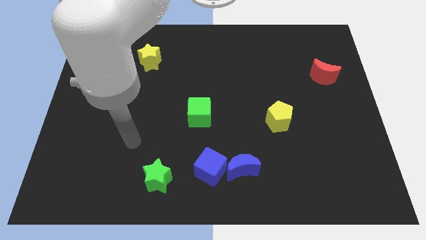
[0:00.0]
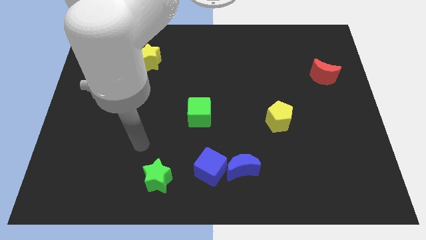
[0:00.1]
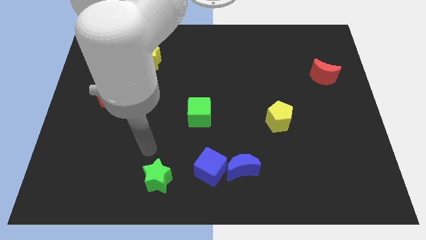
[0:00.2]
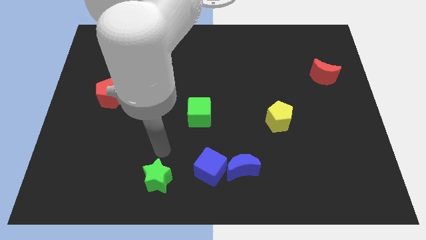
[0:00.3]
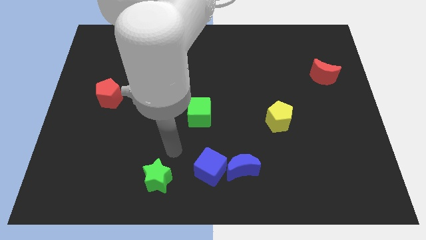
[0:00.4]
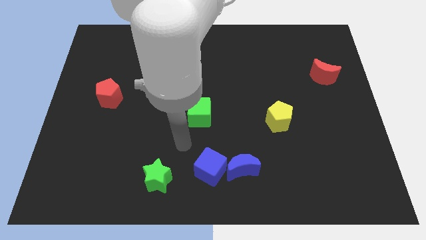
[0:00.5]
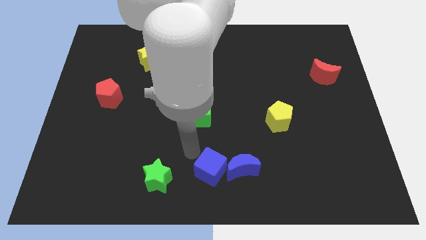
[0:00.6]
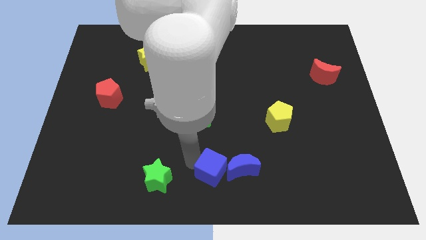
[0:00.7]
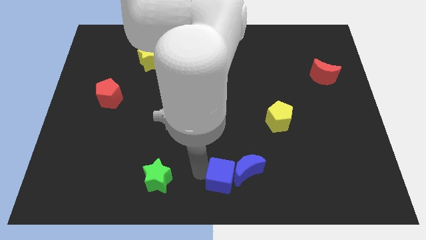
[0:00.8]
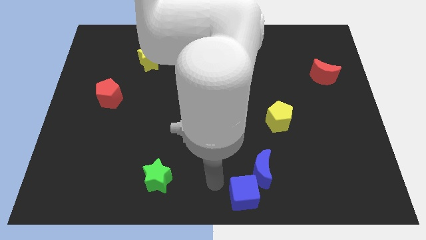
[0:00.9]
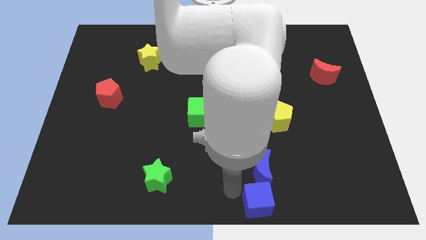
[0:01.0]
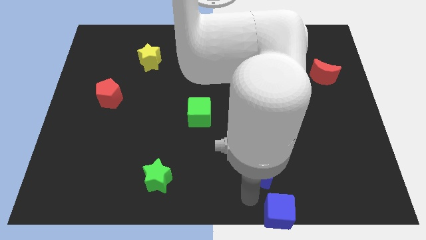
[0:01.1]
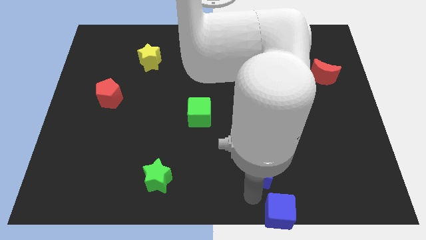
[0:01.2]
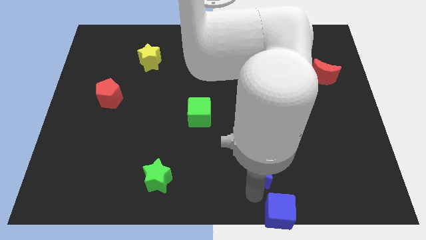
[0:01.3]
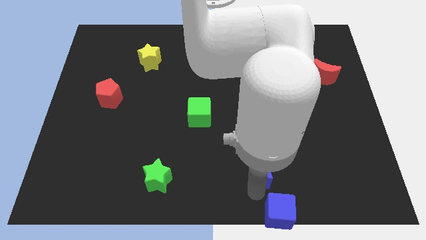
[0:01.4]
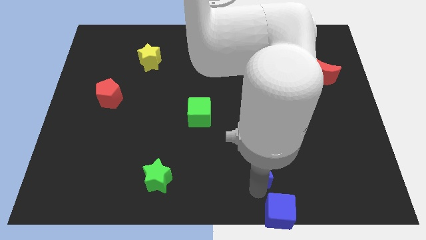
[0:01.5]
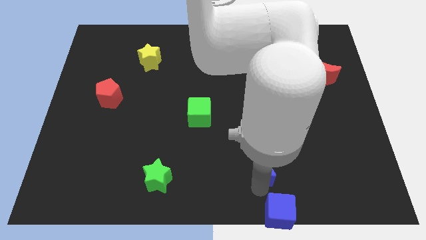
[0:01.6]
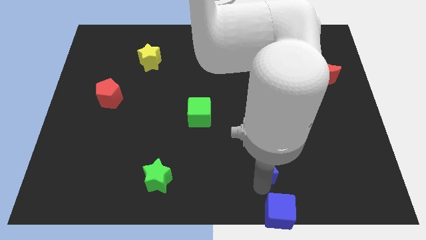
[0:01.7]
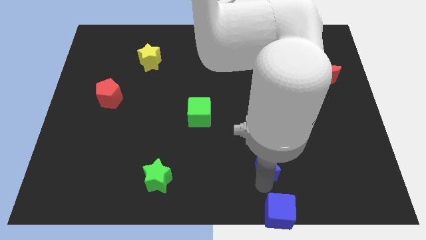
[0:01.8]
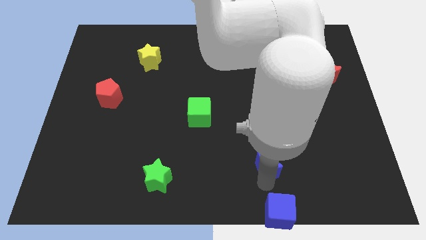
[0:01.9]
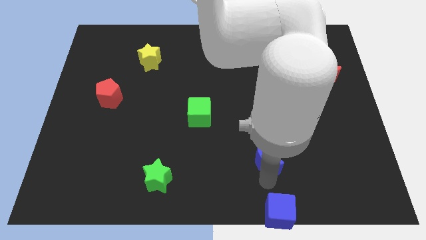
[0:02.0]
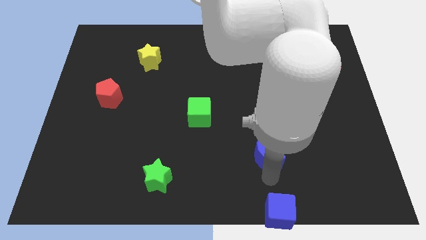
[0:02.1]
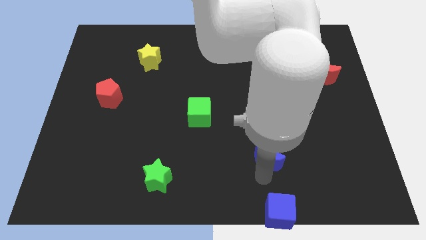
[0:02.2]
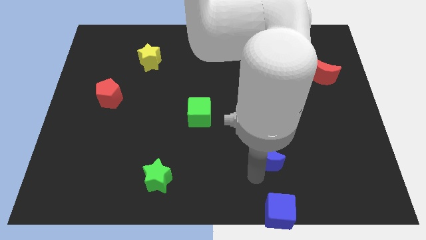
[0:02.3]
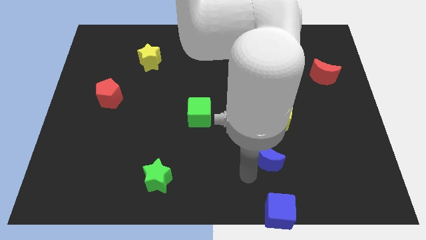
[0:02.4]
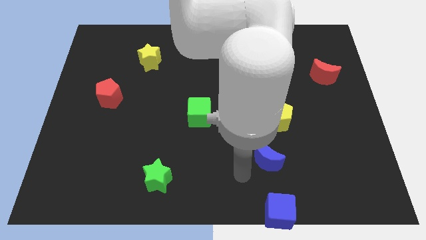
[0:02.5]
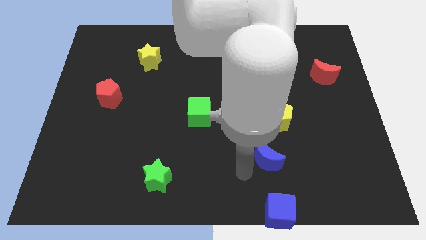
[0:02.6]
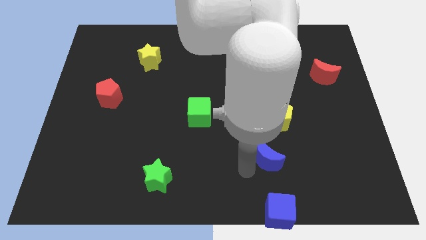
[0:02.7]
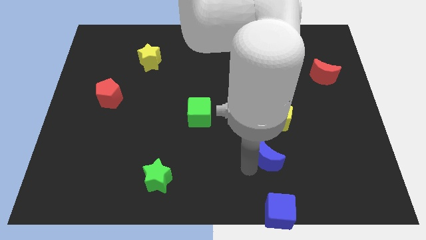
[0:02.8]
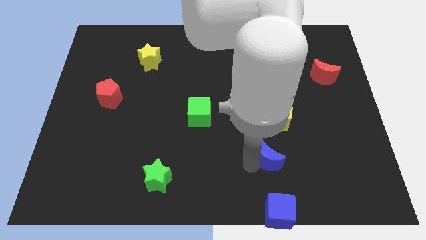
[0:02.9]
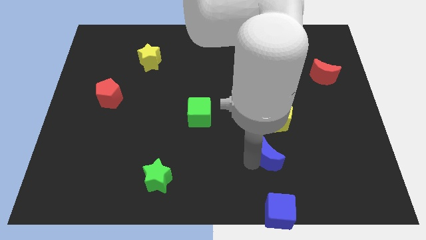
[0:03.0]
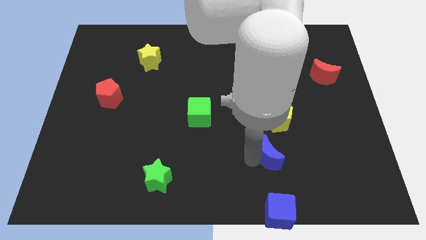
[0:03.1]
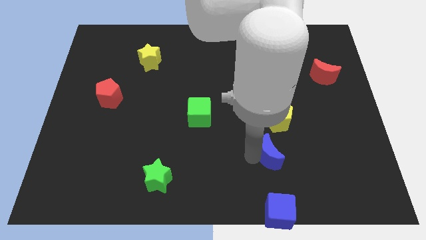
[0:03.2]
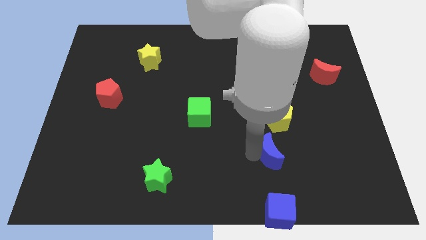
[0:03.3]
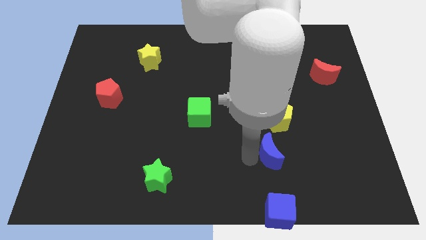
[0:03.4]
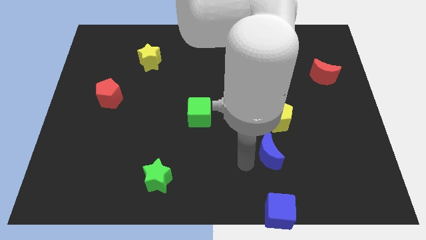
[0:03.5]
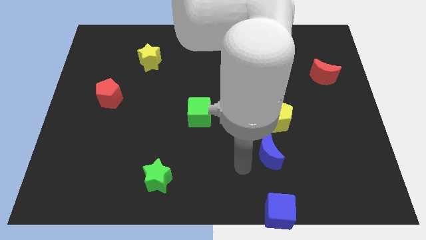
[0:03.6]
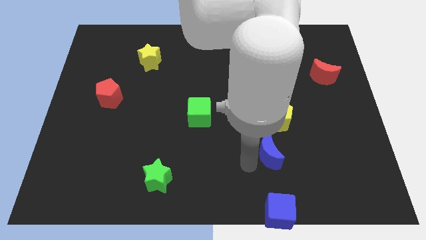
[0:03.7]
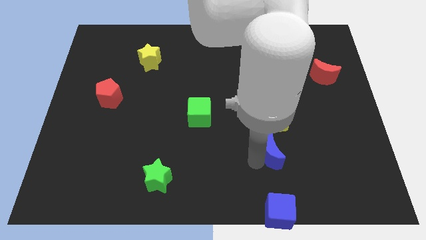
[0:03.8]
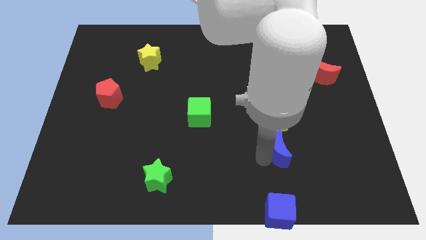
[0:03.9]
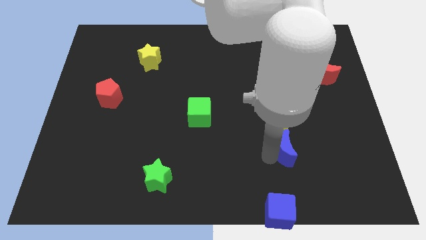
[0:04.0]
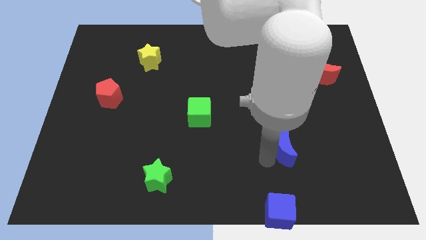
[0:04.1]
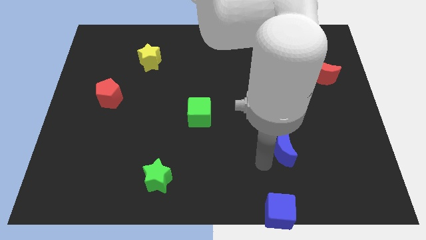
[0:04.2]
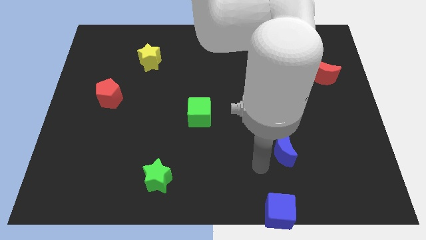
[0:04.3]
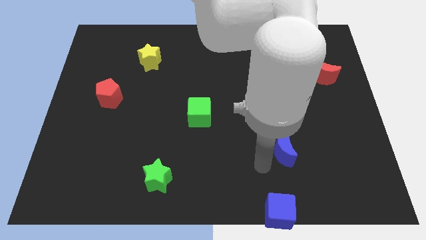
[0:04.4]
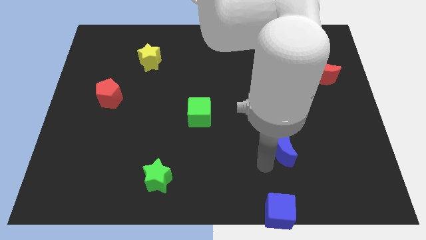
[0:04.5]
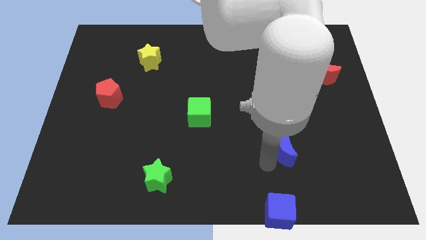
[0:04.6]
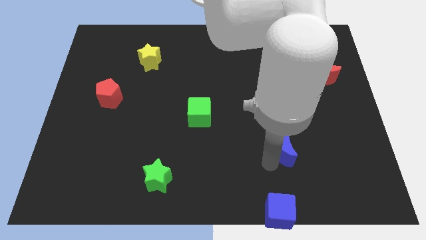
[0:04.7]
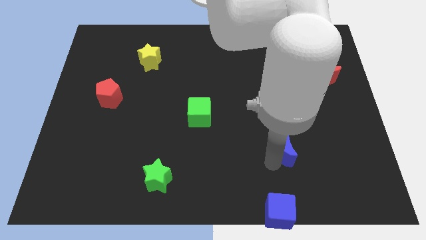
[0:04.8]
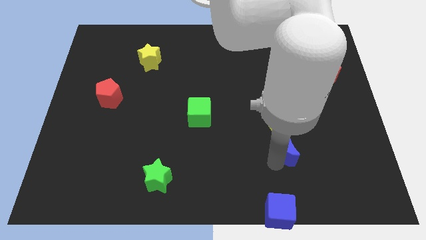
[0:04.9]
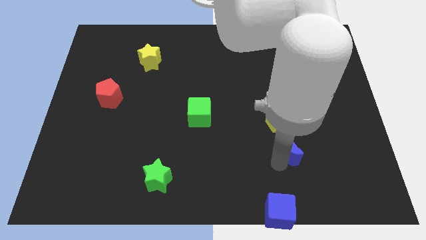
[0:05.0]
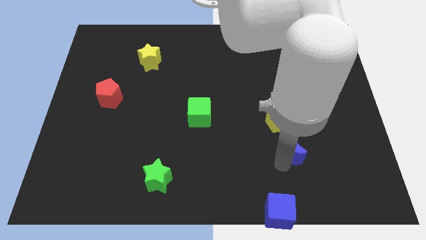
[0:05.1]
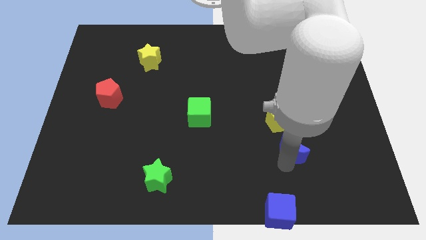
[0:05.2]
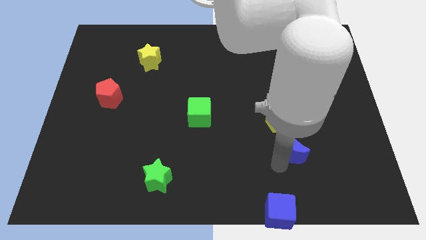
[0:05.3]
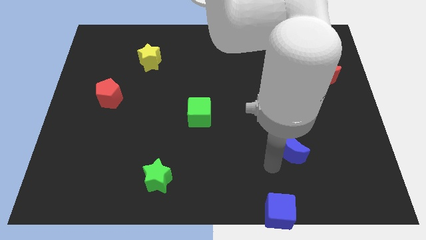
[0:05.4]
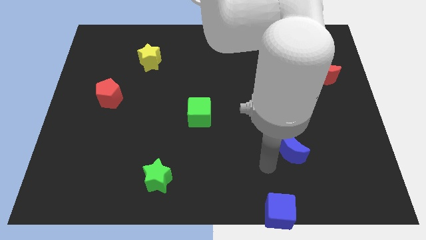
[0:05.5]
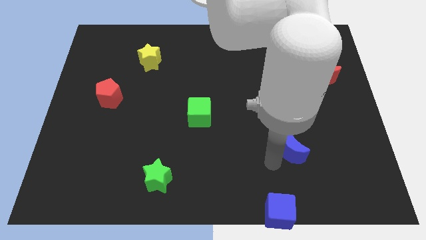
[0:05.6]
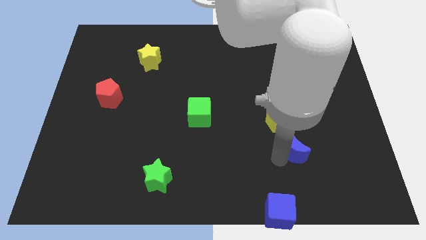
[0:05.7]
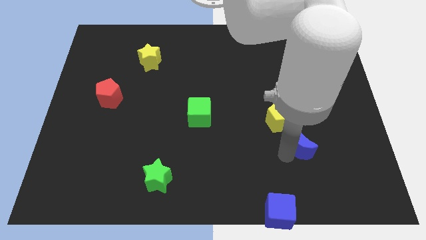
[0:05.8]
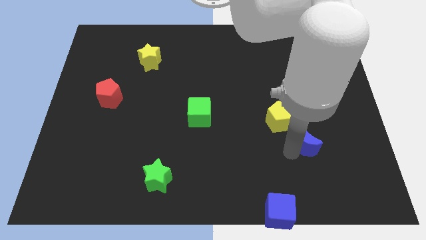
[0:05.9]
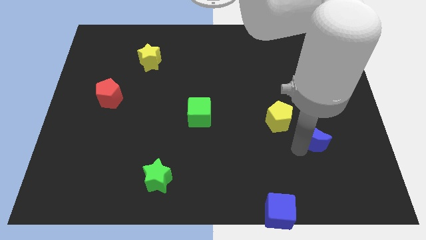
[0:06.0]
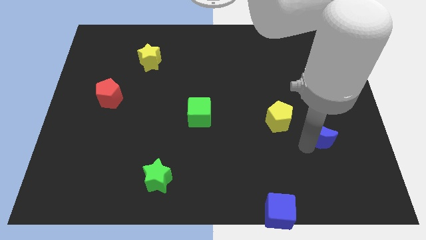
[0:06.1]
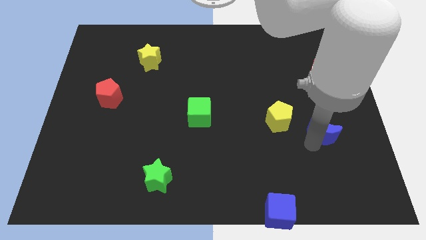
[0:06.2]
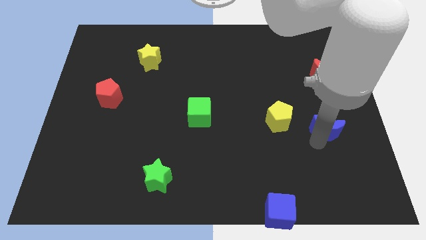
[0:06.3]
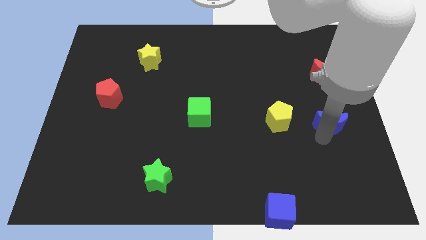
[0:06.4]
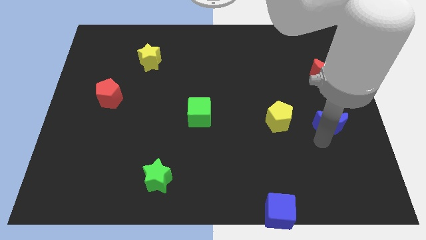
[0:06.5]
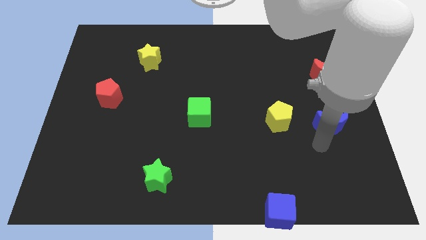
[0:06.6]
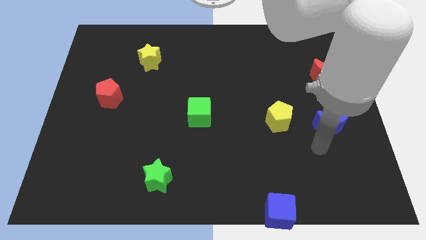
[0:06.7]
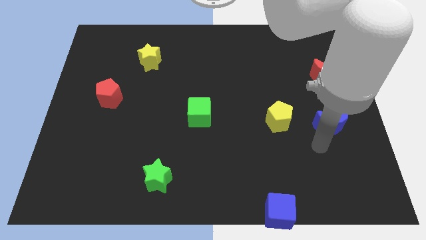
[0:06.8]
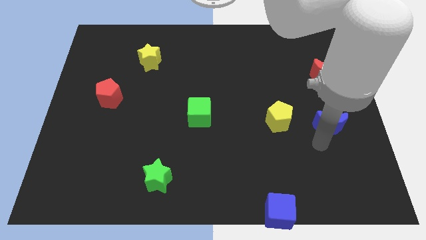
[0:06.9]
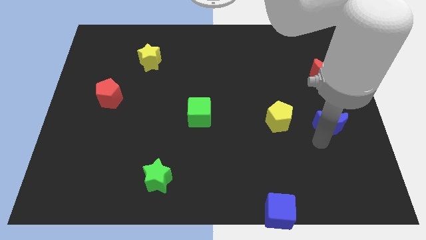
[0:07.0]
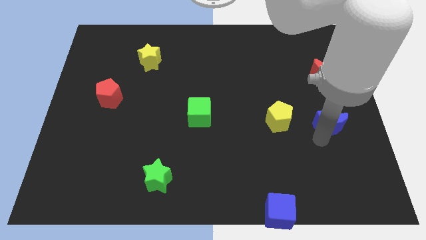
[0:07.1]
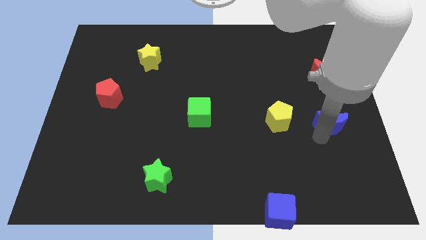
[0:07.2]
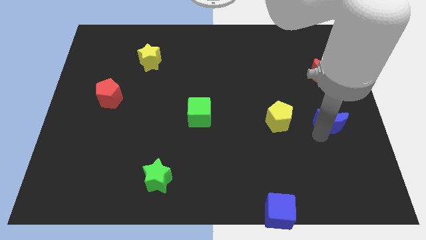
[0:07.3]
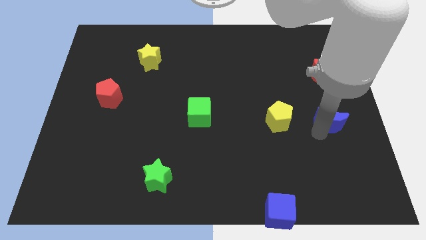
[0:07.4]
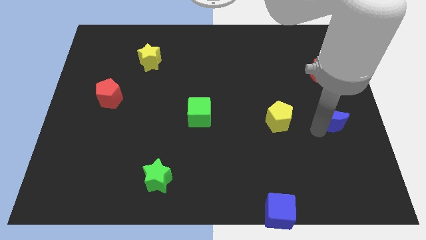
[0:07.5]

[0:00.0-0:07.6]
put the blue moon to the right side of the board
